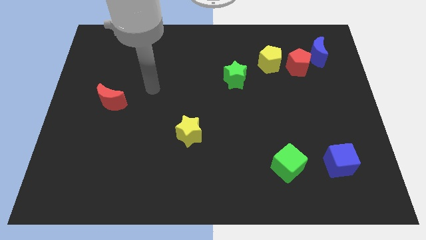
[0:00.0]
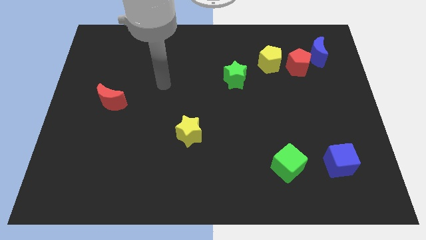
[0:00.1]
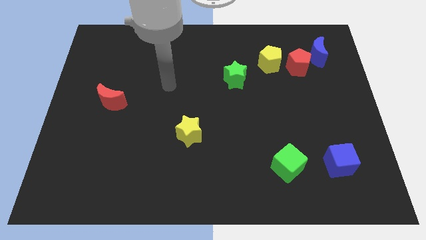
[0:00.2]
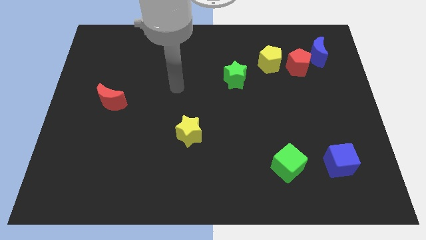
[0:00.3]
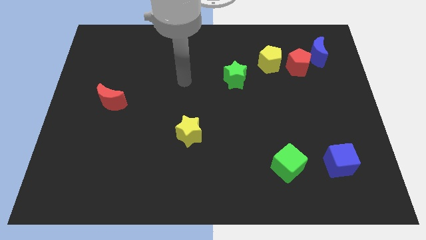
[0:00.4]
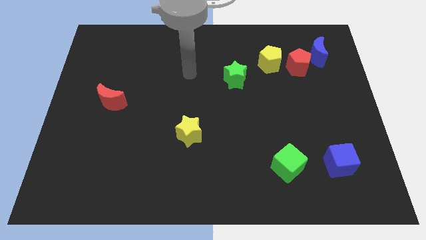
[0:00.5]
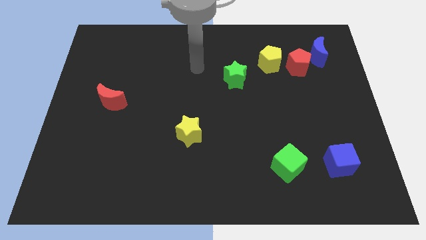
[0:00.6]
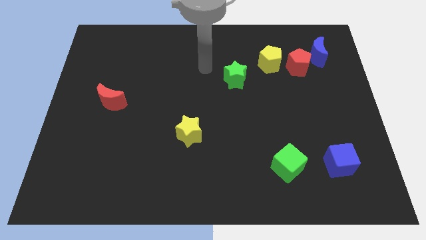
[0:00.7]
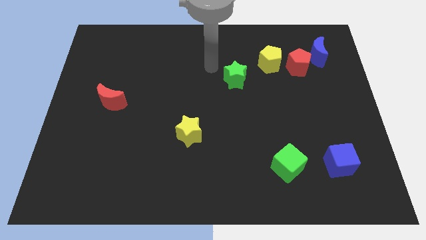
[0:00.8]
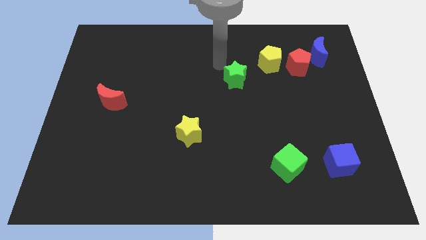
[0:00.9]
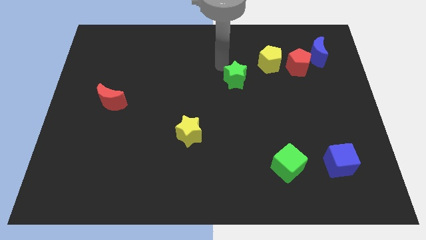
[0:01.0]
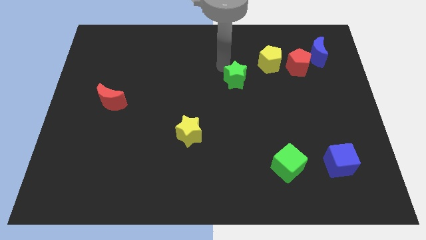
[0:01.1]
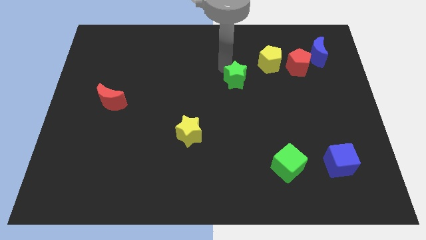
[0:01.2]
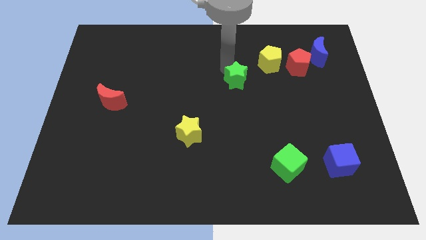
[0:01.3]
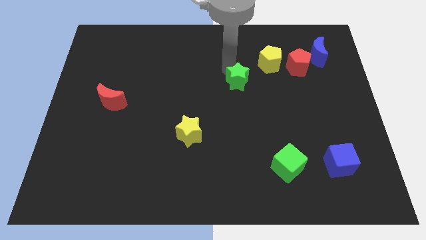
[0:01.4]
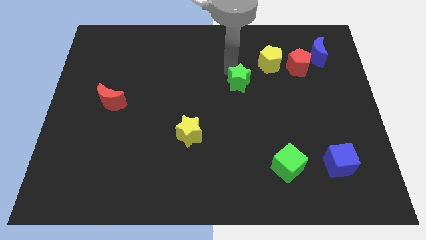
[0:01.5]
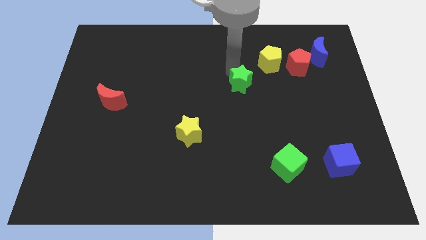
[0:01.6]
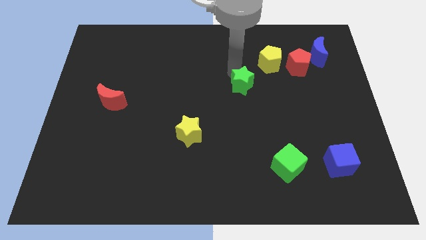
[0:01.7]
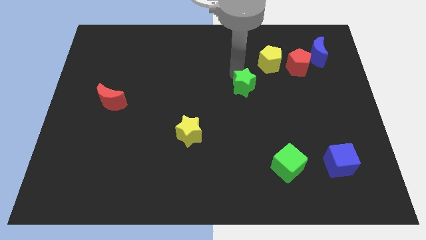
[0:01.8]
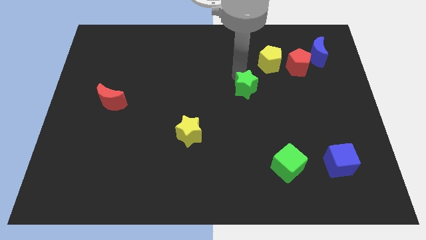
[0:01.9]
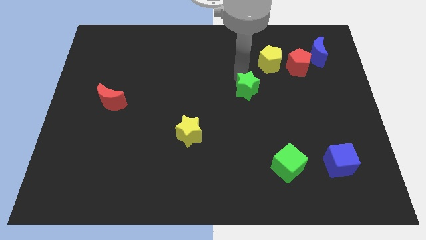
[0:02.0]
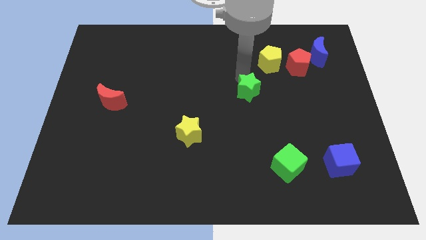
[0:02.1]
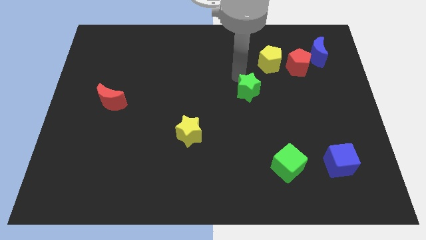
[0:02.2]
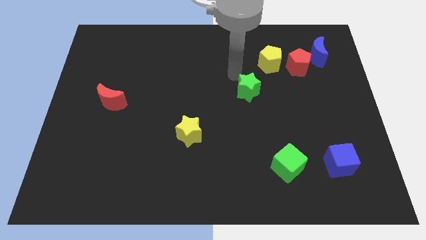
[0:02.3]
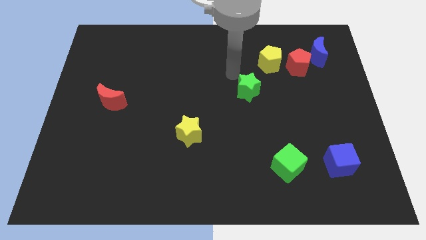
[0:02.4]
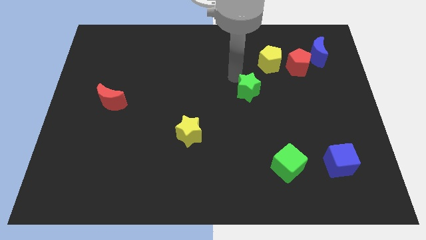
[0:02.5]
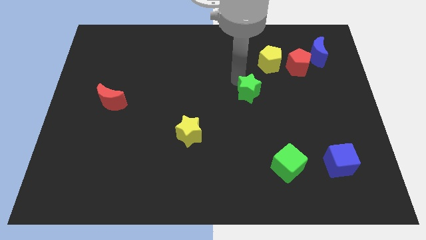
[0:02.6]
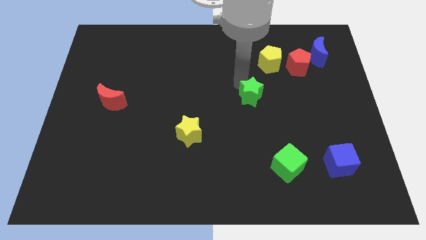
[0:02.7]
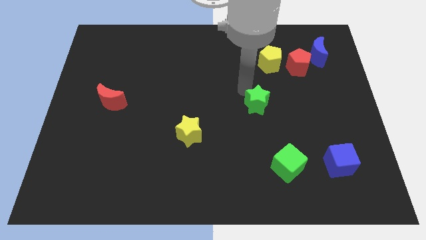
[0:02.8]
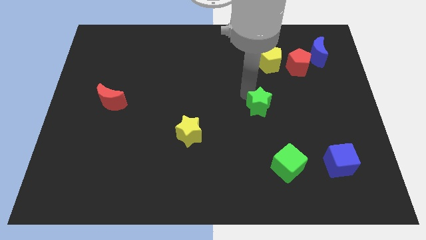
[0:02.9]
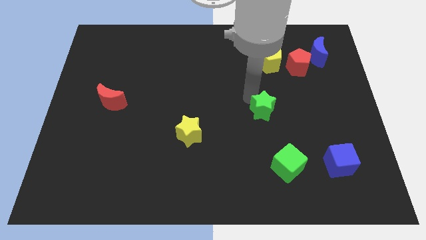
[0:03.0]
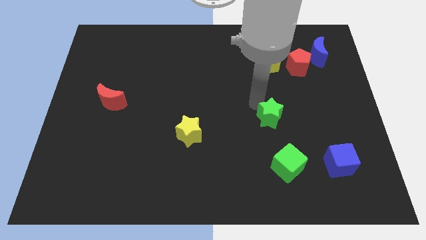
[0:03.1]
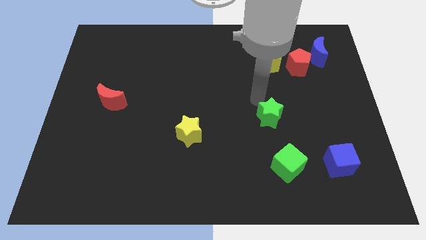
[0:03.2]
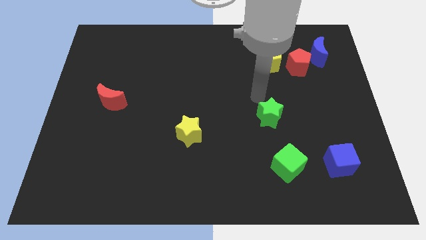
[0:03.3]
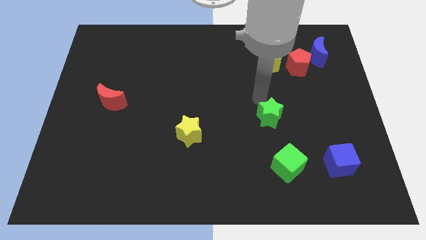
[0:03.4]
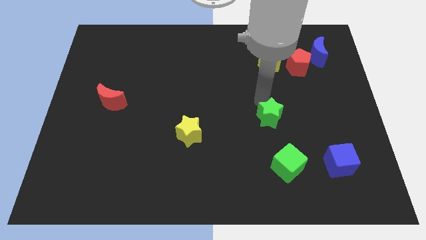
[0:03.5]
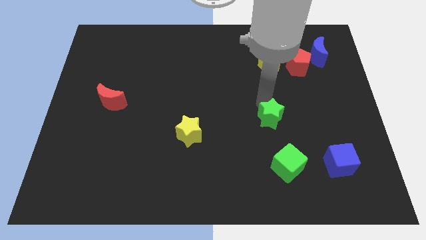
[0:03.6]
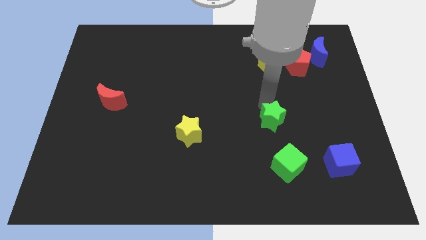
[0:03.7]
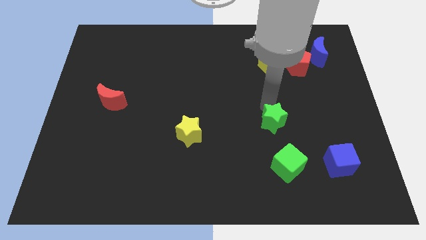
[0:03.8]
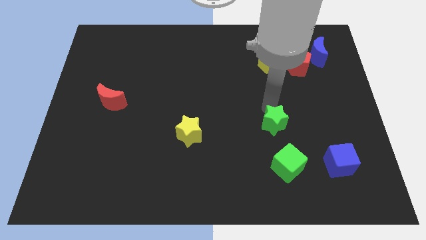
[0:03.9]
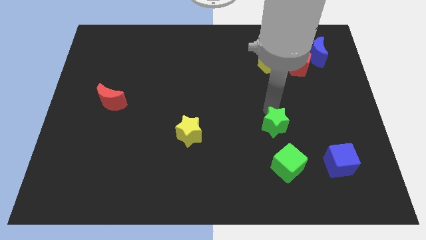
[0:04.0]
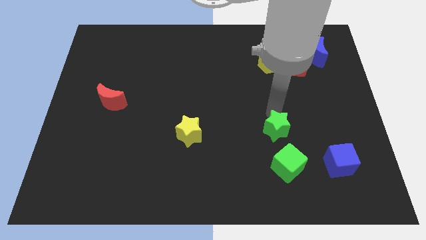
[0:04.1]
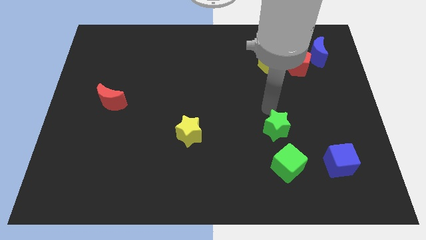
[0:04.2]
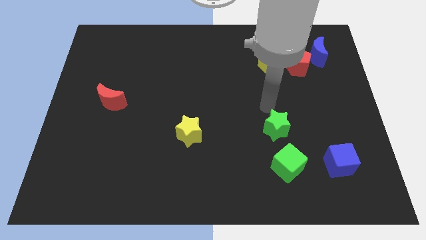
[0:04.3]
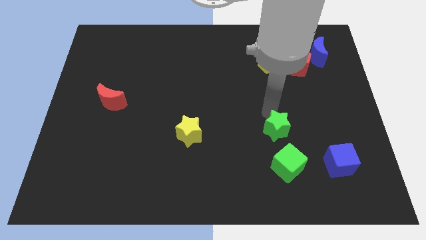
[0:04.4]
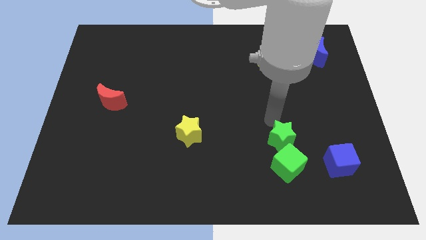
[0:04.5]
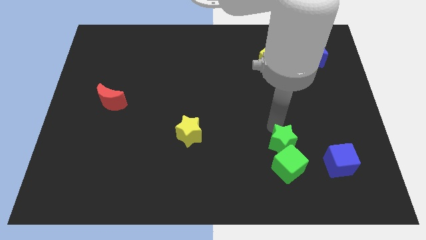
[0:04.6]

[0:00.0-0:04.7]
push the green star next to the green cube

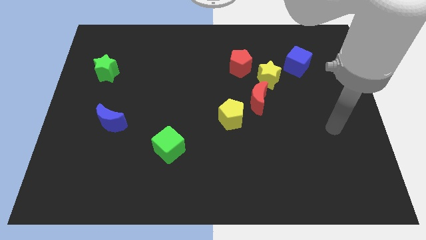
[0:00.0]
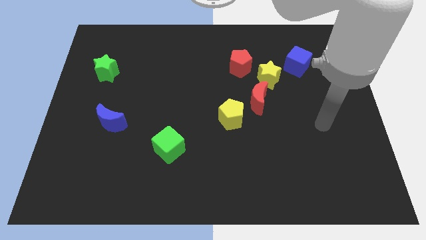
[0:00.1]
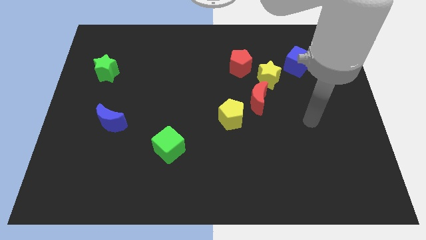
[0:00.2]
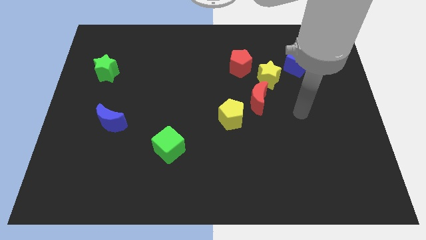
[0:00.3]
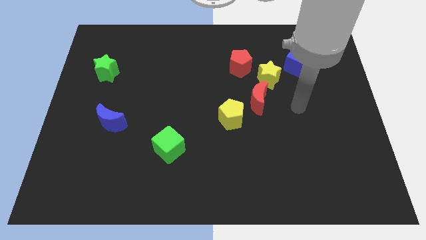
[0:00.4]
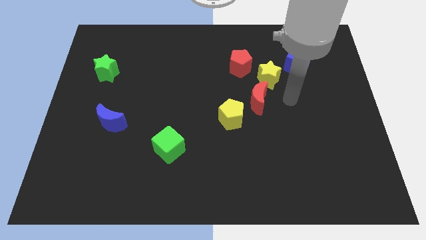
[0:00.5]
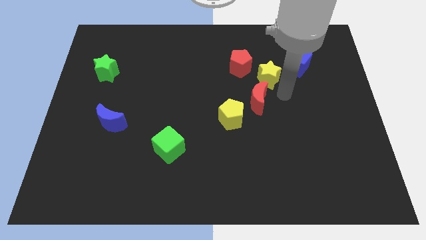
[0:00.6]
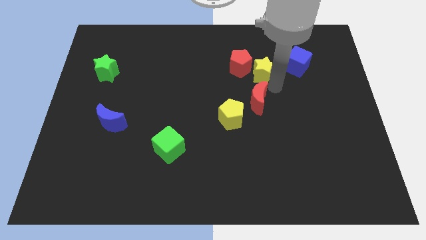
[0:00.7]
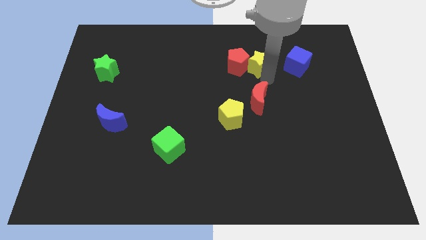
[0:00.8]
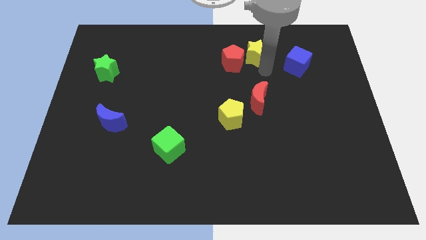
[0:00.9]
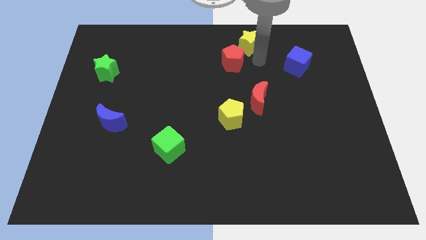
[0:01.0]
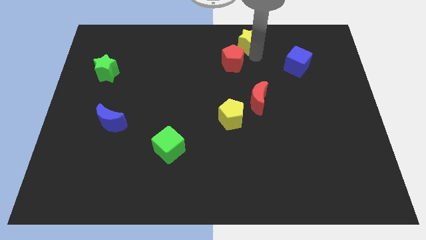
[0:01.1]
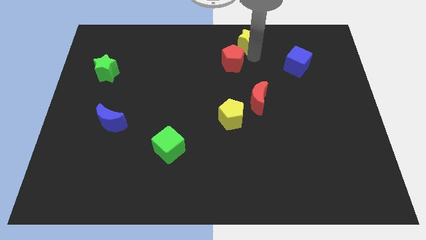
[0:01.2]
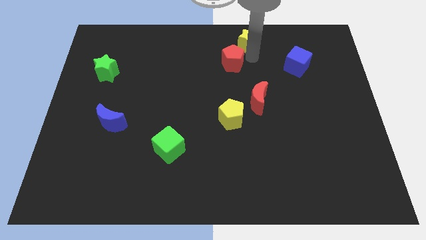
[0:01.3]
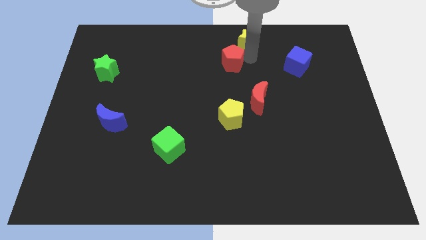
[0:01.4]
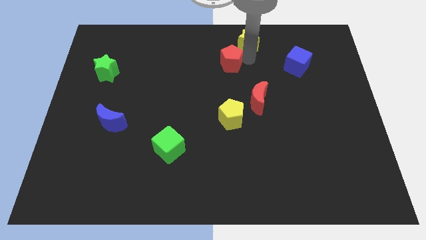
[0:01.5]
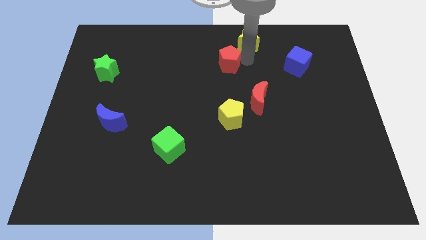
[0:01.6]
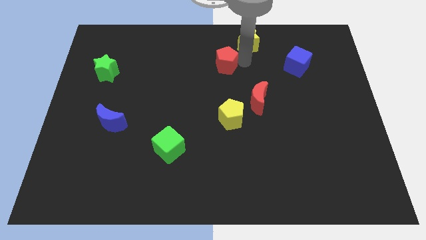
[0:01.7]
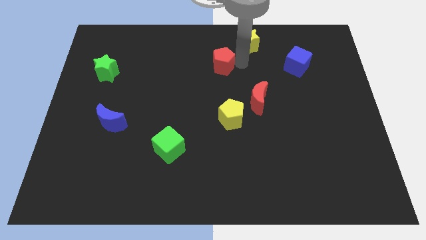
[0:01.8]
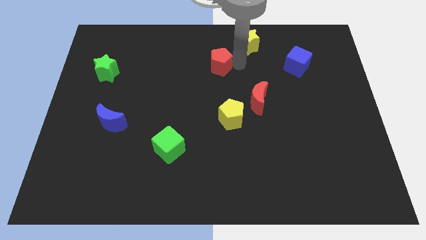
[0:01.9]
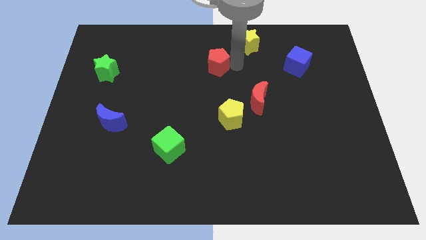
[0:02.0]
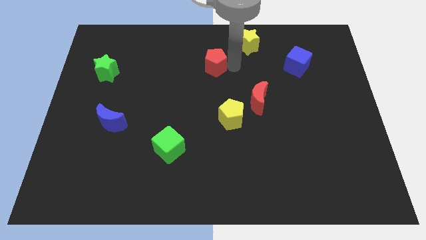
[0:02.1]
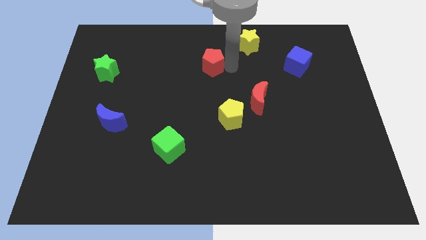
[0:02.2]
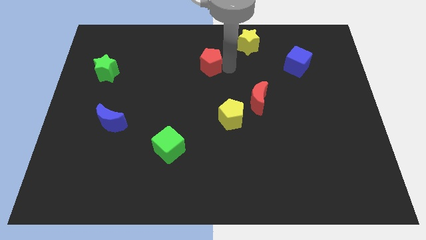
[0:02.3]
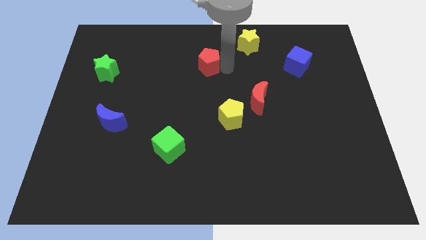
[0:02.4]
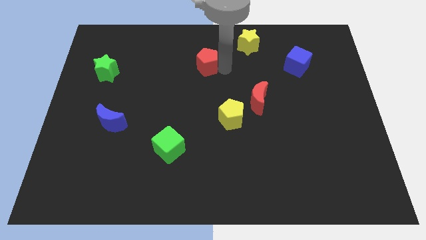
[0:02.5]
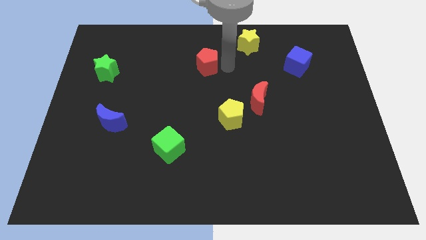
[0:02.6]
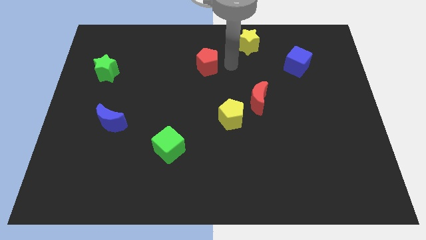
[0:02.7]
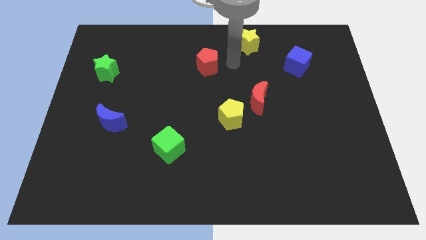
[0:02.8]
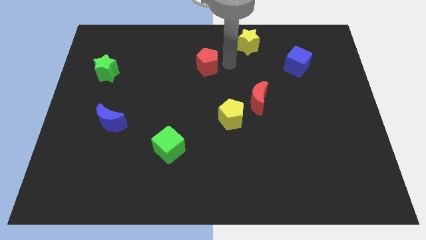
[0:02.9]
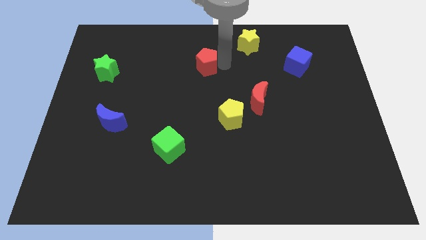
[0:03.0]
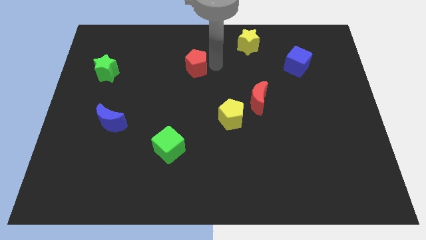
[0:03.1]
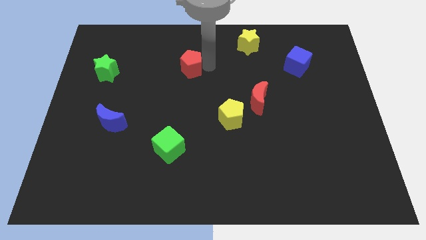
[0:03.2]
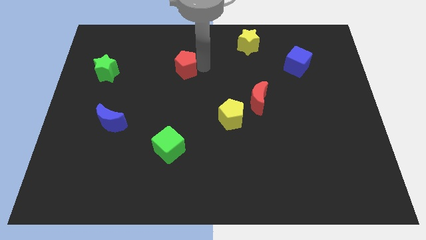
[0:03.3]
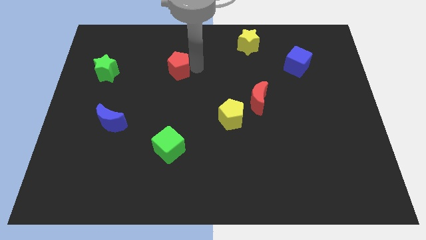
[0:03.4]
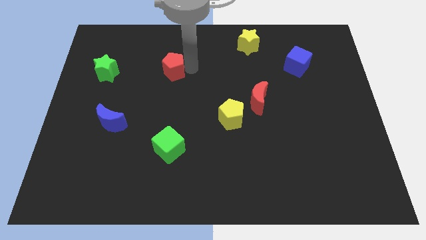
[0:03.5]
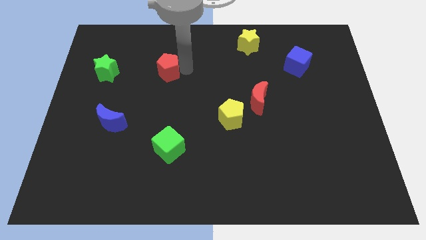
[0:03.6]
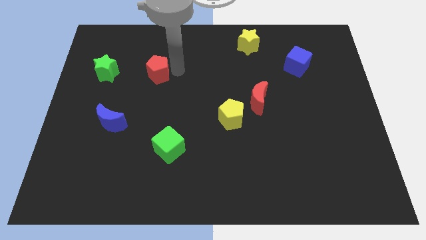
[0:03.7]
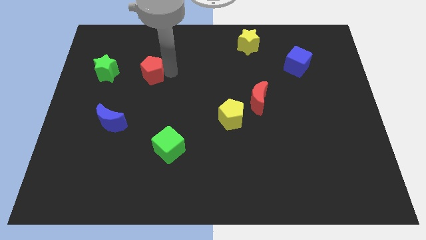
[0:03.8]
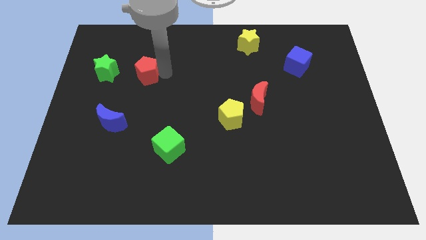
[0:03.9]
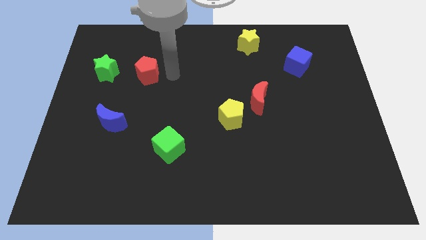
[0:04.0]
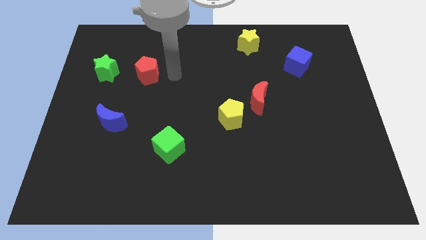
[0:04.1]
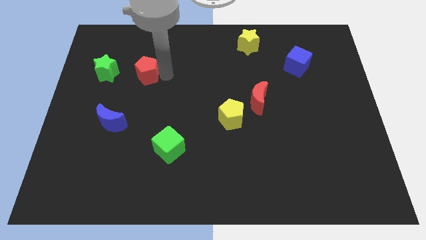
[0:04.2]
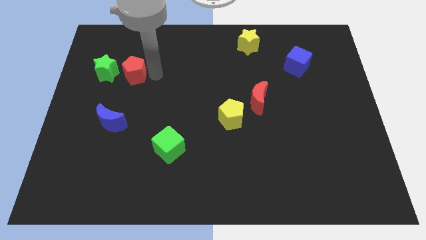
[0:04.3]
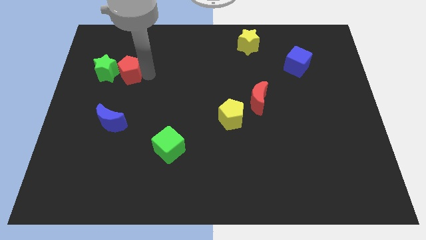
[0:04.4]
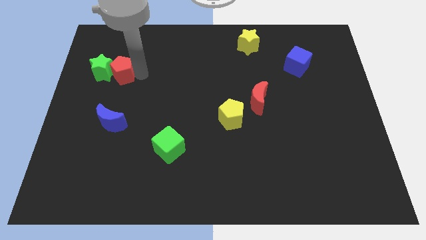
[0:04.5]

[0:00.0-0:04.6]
push the red pentagon close to the green star
